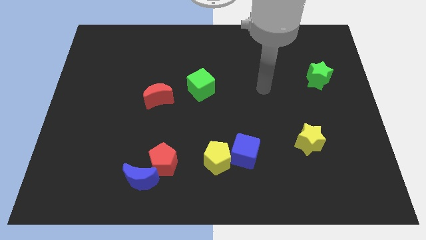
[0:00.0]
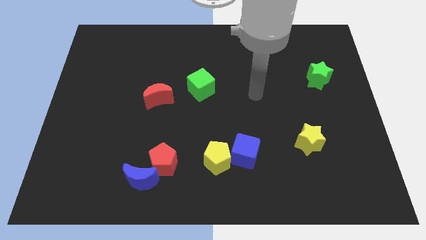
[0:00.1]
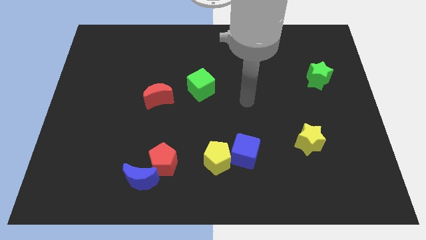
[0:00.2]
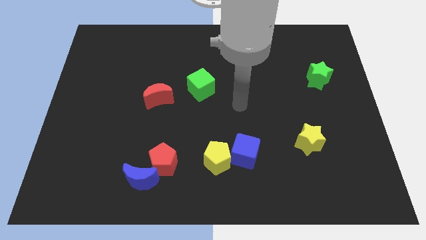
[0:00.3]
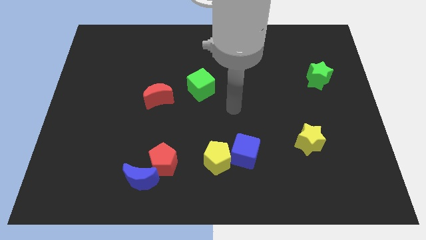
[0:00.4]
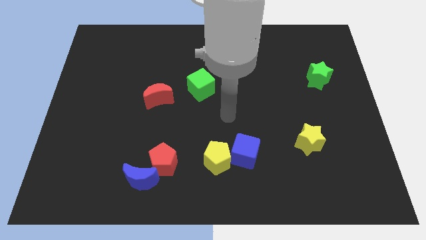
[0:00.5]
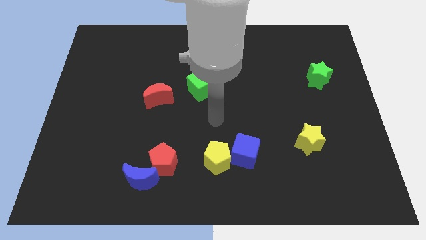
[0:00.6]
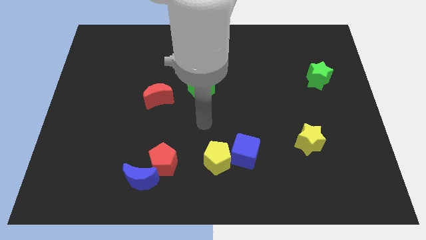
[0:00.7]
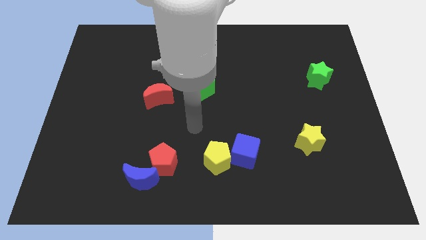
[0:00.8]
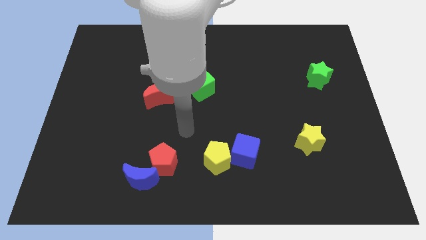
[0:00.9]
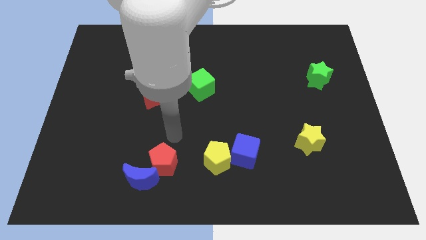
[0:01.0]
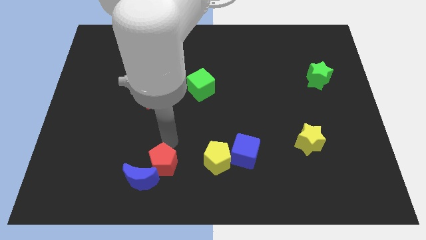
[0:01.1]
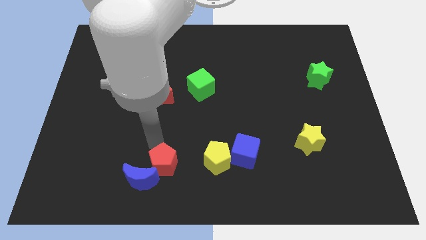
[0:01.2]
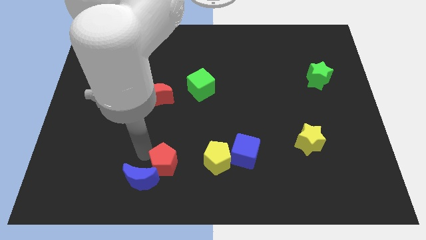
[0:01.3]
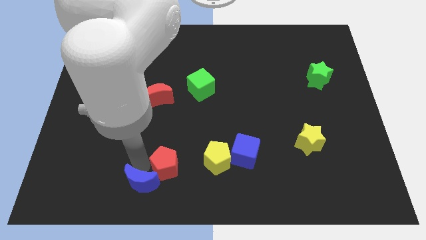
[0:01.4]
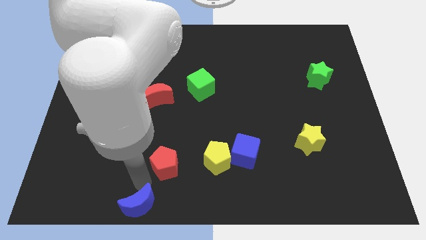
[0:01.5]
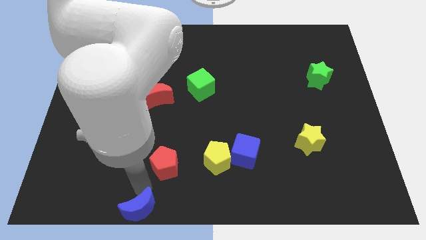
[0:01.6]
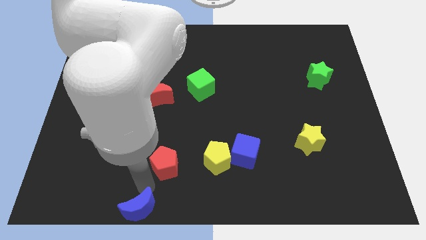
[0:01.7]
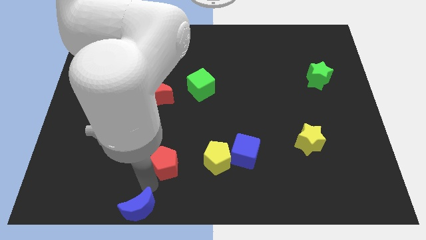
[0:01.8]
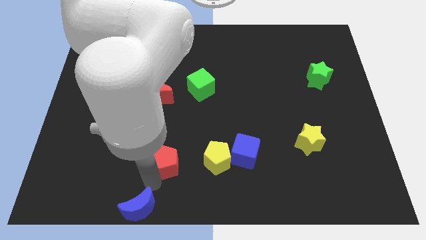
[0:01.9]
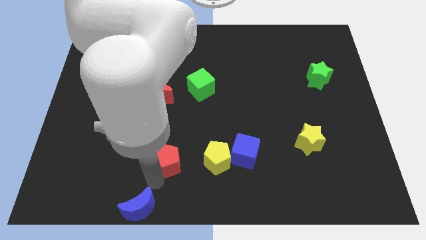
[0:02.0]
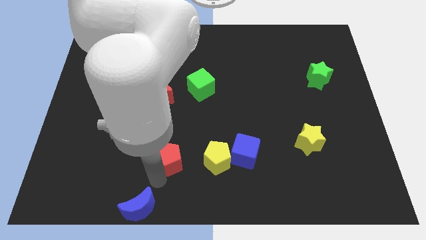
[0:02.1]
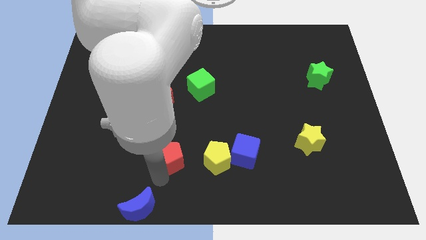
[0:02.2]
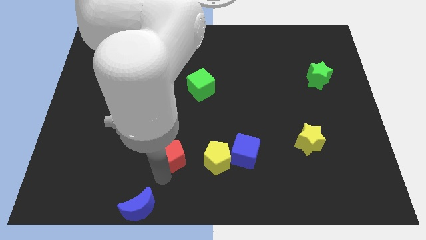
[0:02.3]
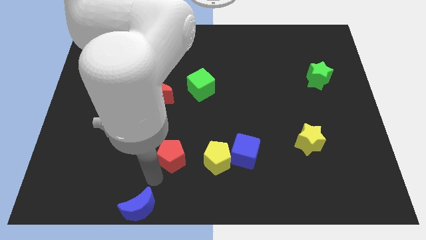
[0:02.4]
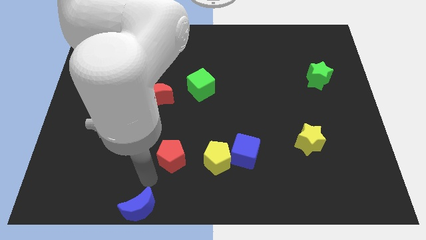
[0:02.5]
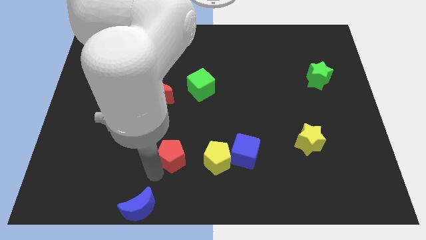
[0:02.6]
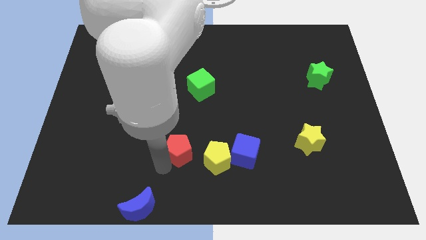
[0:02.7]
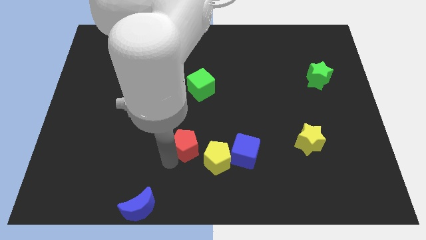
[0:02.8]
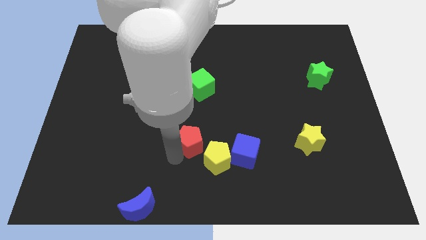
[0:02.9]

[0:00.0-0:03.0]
slightly push the red pentagon upwards and then to the right

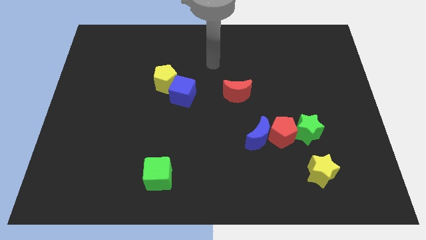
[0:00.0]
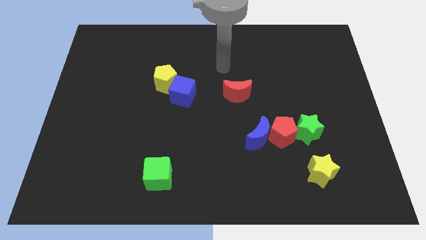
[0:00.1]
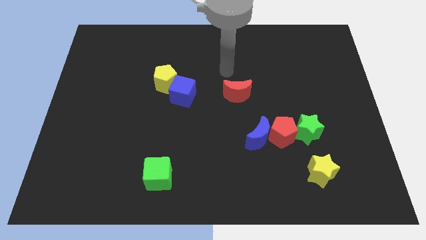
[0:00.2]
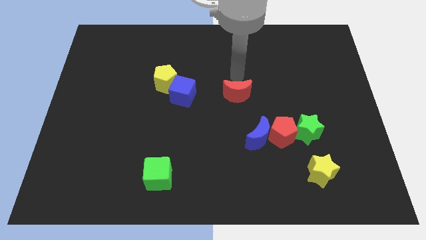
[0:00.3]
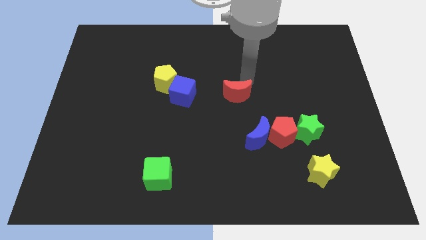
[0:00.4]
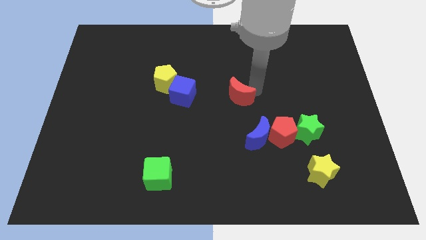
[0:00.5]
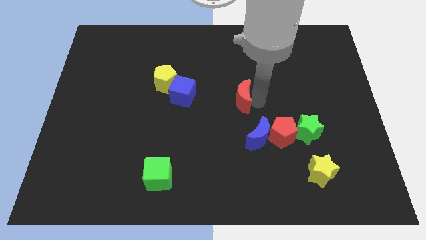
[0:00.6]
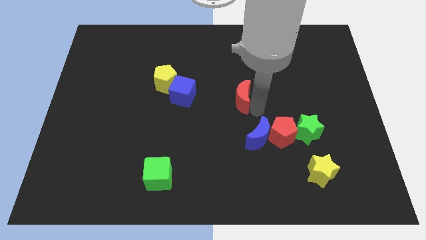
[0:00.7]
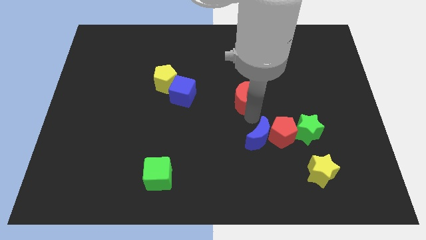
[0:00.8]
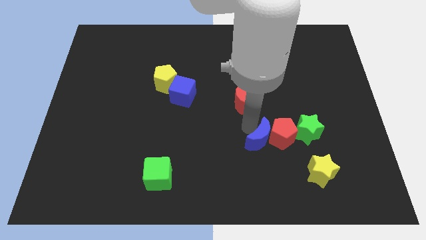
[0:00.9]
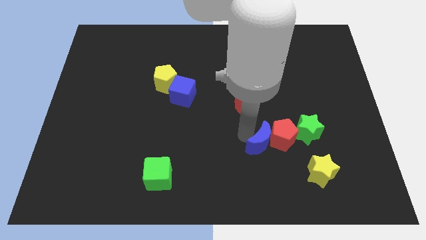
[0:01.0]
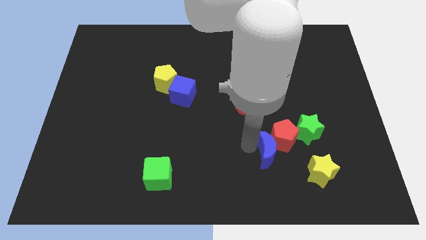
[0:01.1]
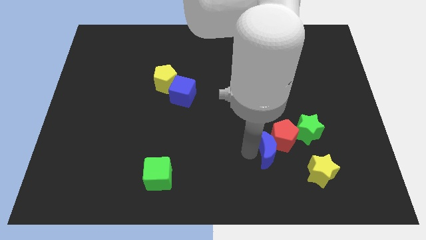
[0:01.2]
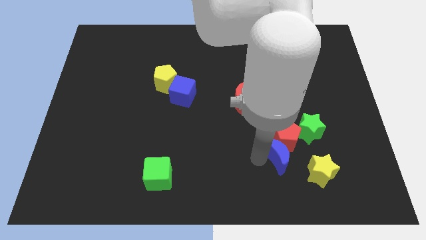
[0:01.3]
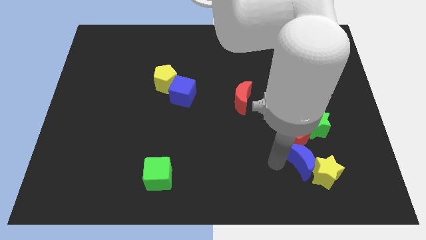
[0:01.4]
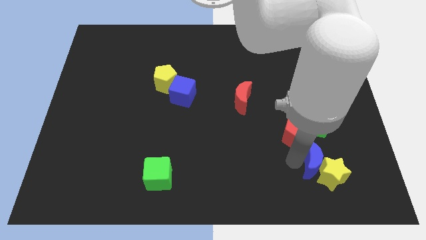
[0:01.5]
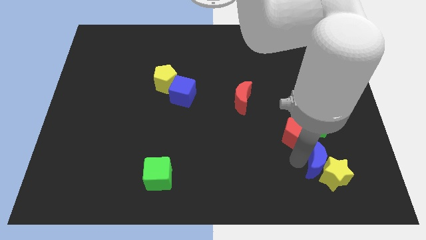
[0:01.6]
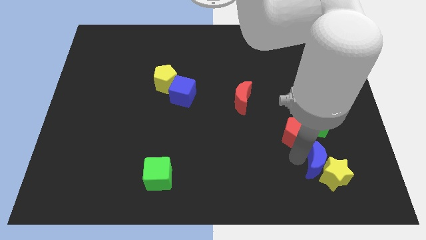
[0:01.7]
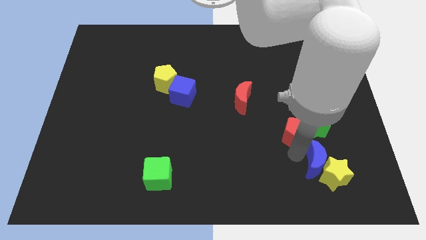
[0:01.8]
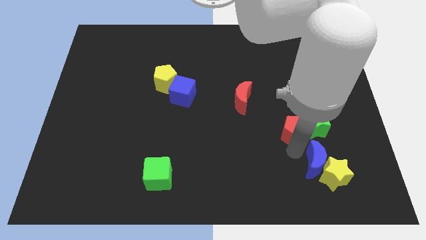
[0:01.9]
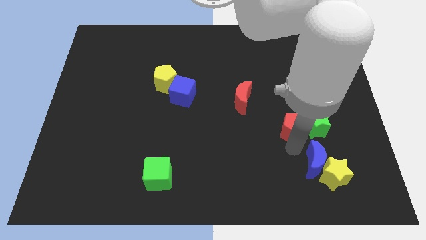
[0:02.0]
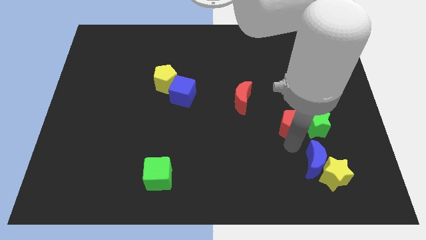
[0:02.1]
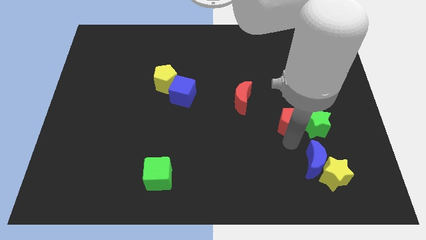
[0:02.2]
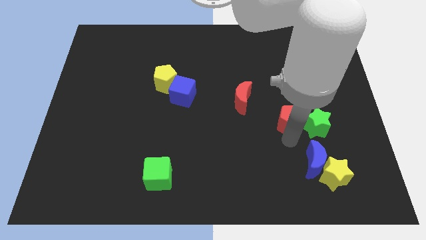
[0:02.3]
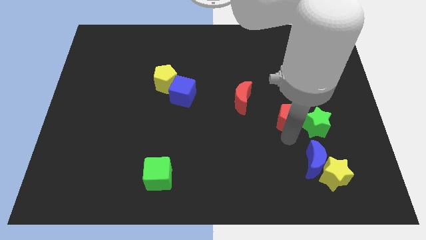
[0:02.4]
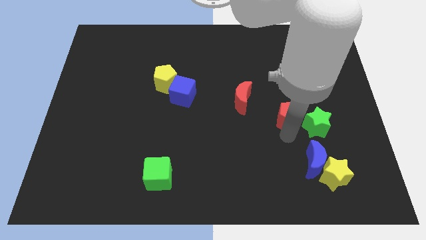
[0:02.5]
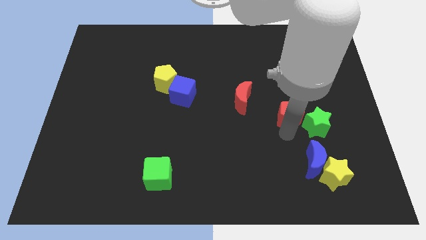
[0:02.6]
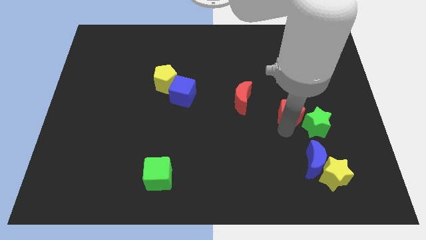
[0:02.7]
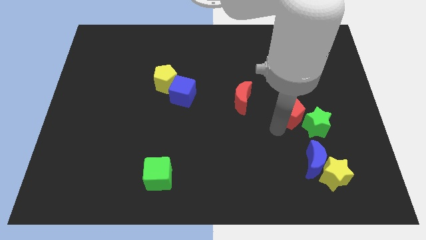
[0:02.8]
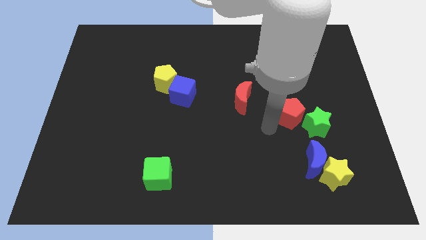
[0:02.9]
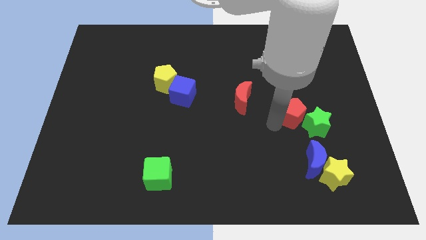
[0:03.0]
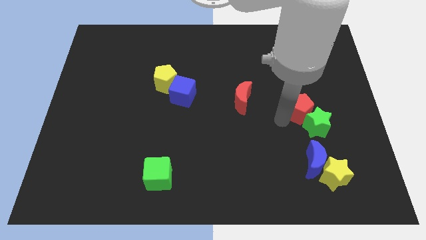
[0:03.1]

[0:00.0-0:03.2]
move the red pentagon slightly upwards and right

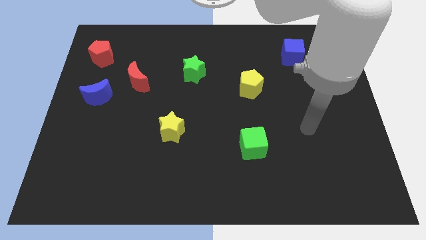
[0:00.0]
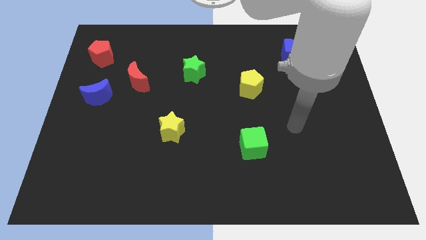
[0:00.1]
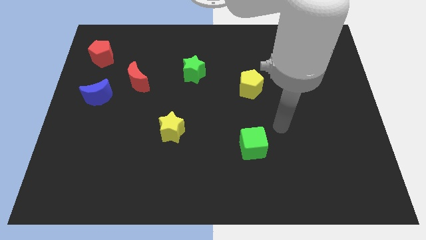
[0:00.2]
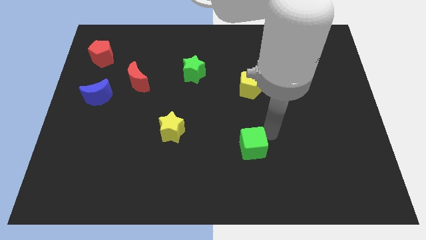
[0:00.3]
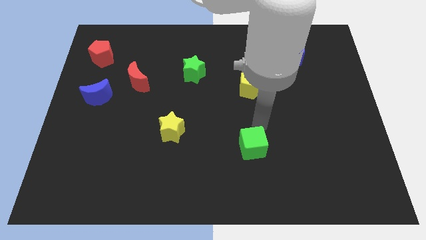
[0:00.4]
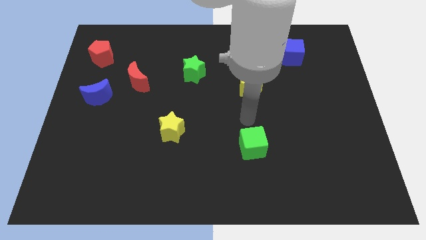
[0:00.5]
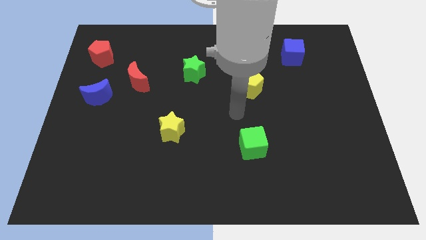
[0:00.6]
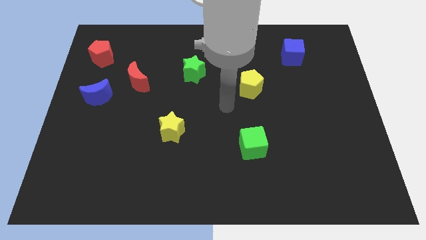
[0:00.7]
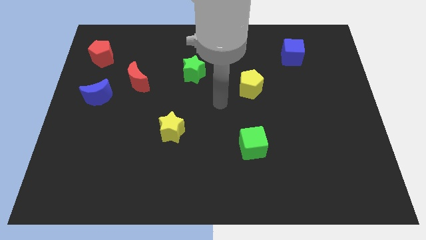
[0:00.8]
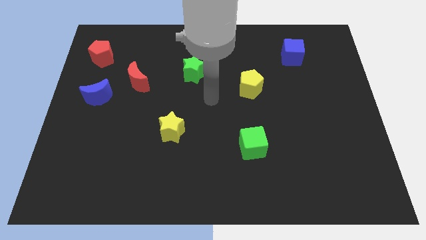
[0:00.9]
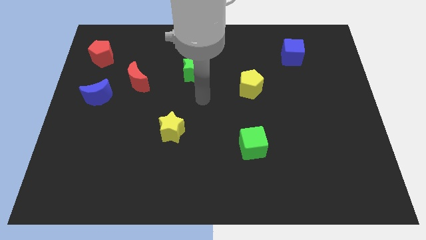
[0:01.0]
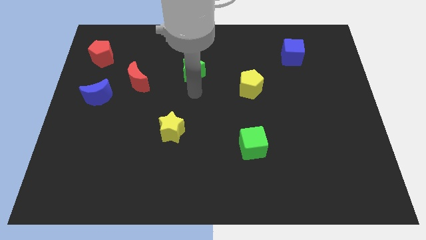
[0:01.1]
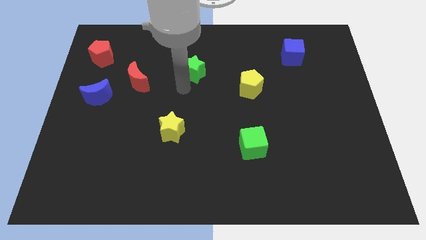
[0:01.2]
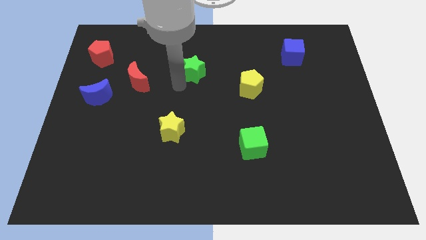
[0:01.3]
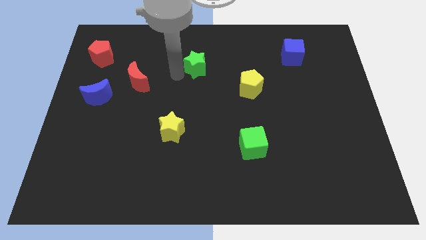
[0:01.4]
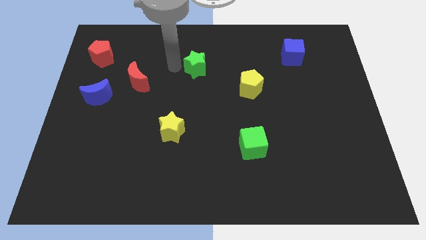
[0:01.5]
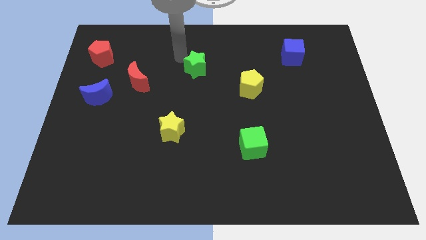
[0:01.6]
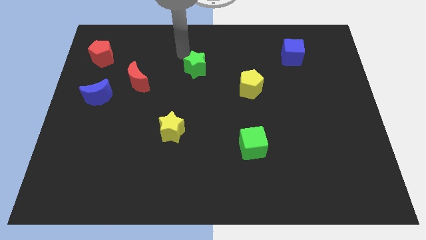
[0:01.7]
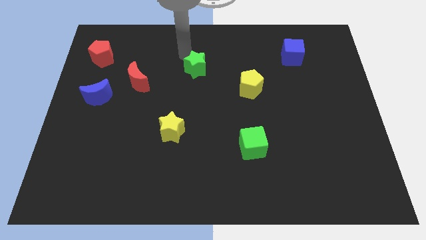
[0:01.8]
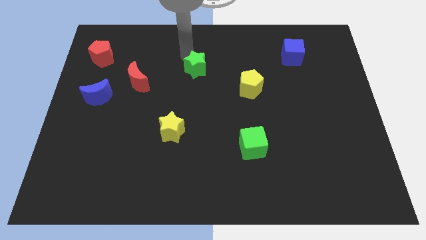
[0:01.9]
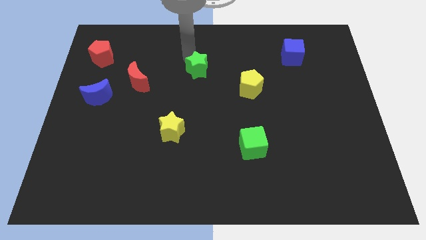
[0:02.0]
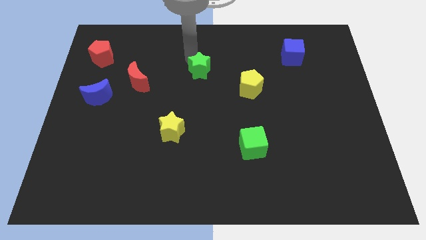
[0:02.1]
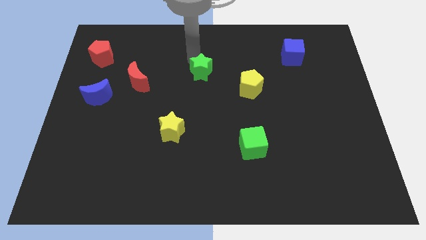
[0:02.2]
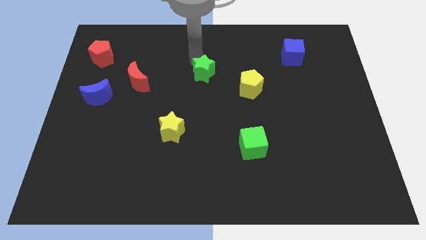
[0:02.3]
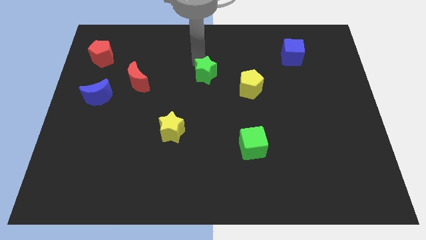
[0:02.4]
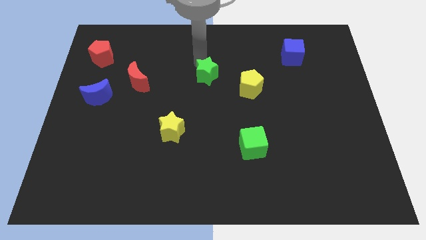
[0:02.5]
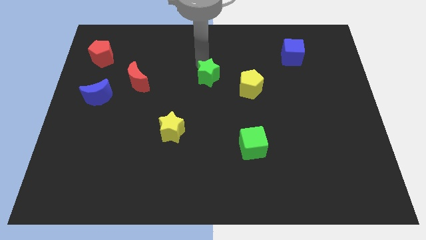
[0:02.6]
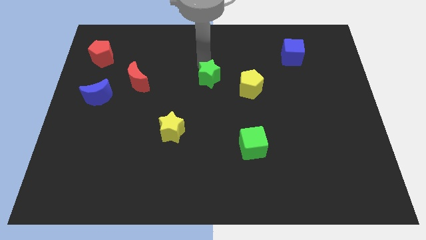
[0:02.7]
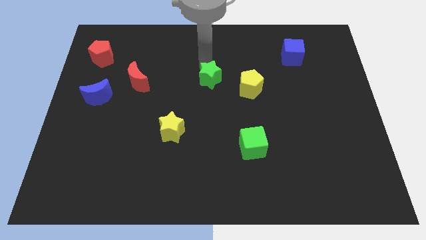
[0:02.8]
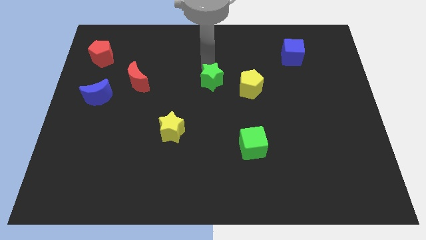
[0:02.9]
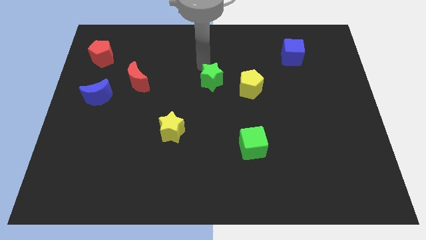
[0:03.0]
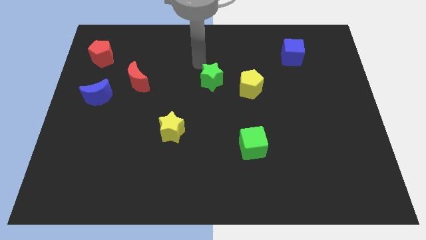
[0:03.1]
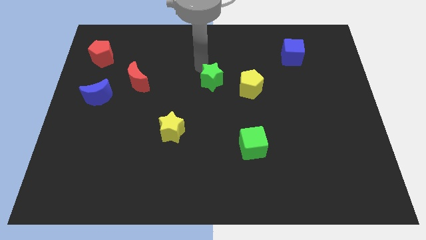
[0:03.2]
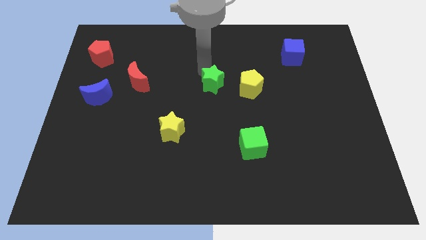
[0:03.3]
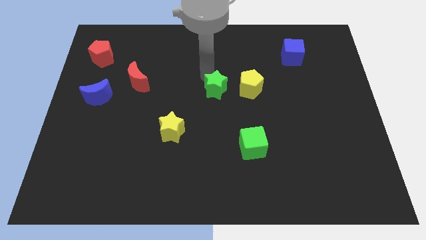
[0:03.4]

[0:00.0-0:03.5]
slightly push the green star diagonally downwards and to the right
